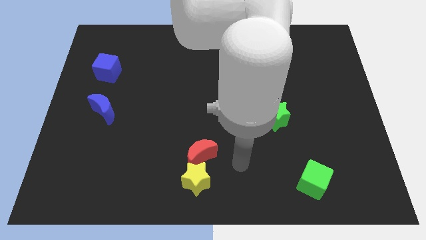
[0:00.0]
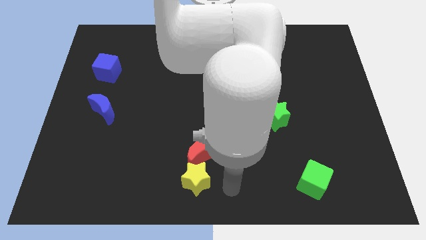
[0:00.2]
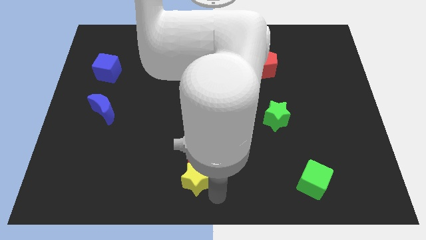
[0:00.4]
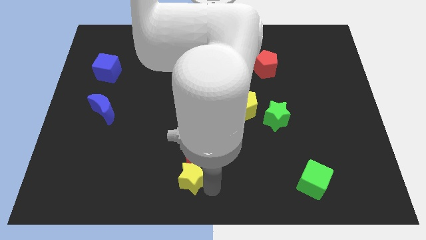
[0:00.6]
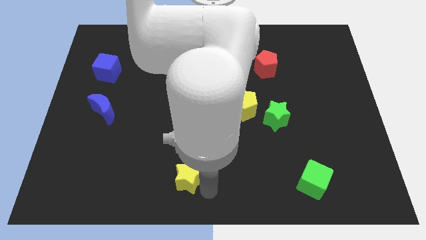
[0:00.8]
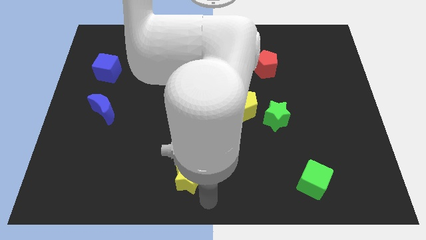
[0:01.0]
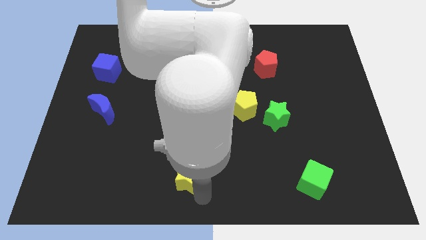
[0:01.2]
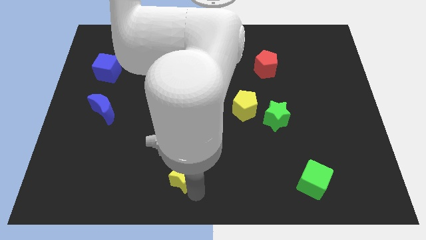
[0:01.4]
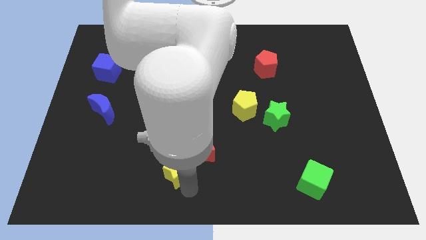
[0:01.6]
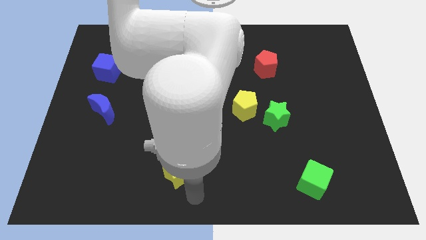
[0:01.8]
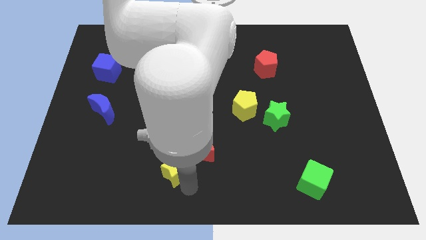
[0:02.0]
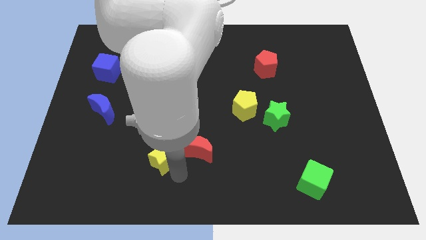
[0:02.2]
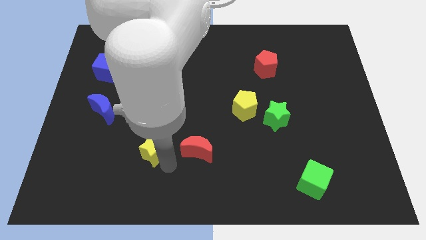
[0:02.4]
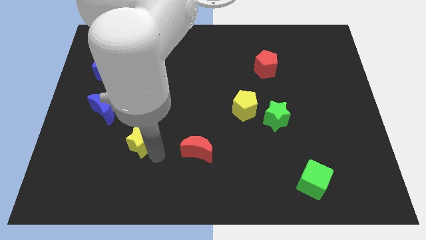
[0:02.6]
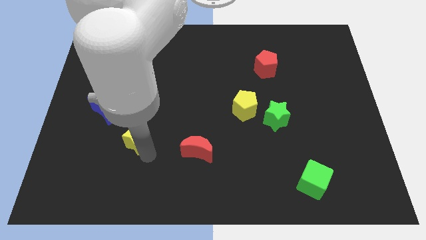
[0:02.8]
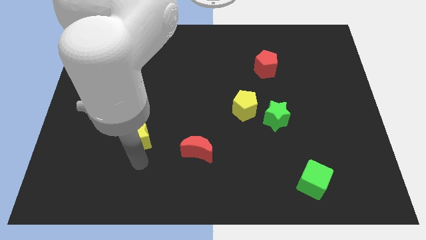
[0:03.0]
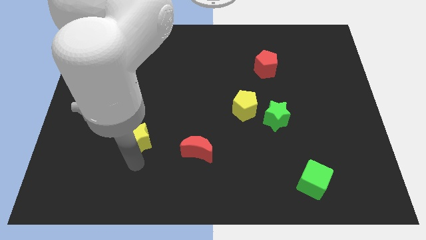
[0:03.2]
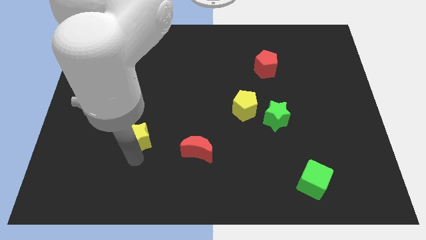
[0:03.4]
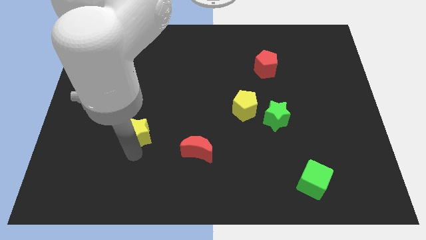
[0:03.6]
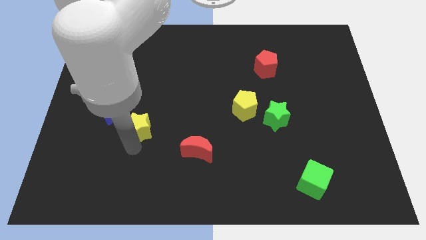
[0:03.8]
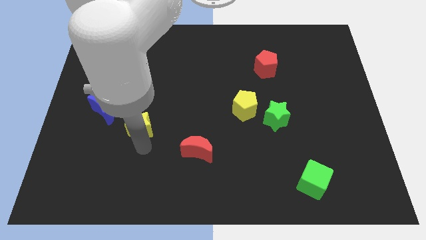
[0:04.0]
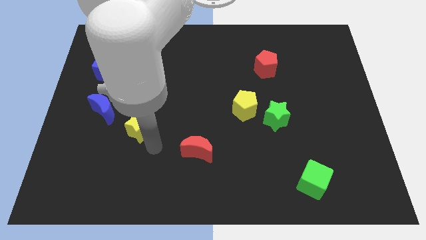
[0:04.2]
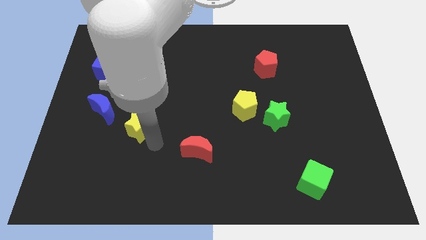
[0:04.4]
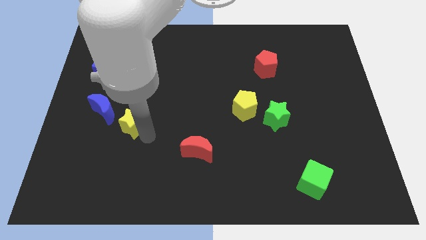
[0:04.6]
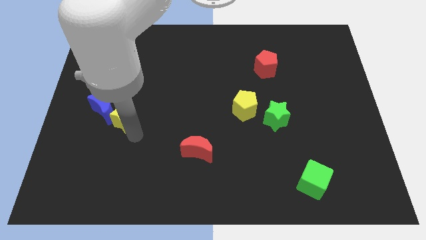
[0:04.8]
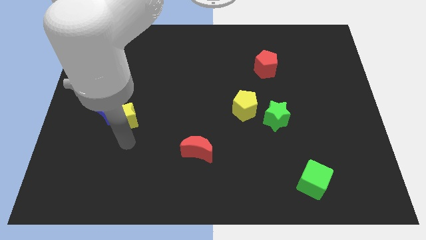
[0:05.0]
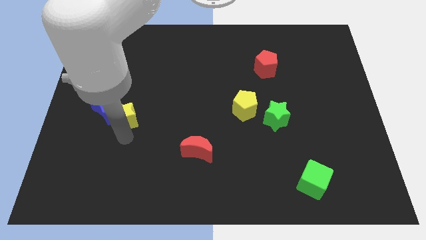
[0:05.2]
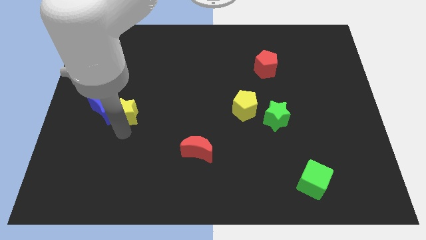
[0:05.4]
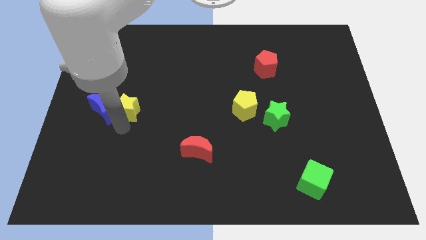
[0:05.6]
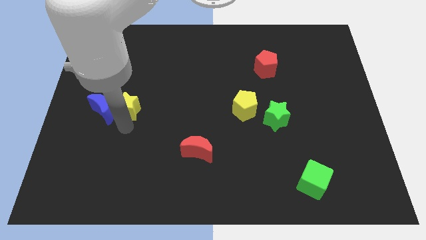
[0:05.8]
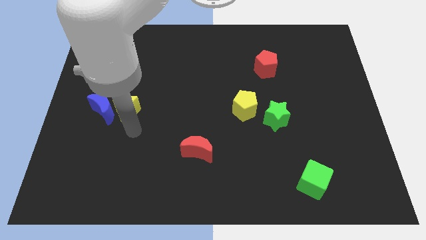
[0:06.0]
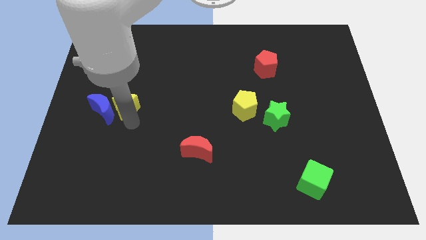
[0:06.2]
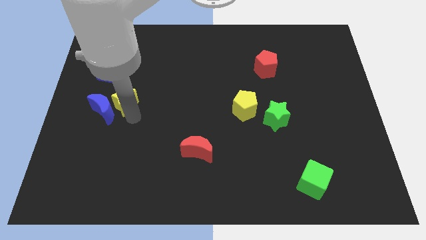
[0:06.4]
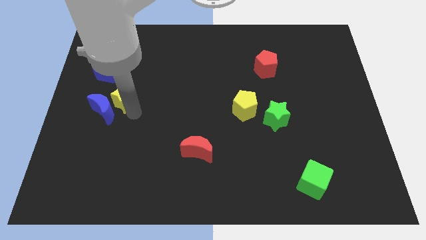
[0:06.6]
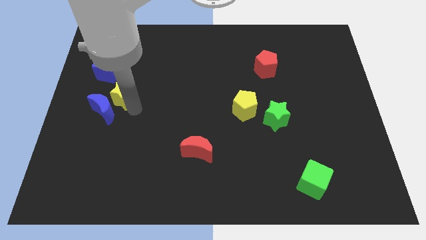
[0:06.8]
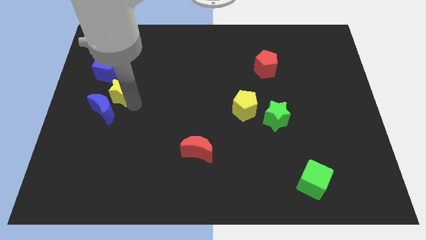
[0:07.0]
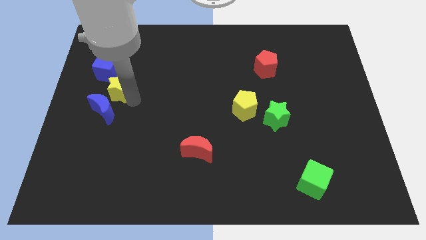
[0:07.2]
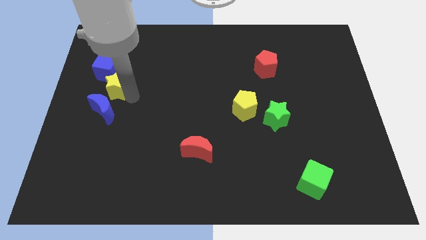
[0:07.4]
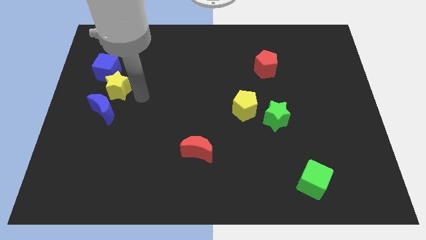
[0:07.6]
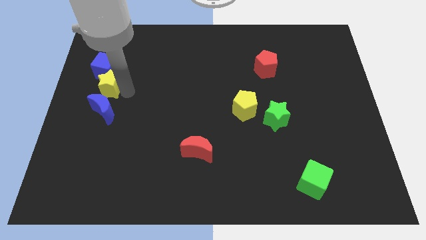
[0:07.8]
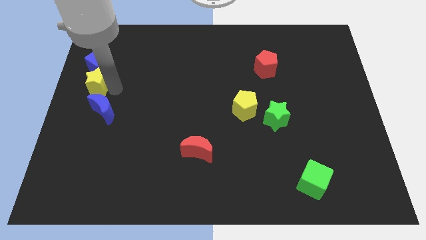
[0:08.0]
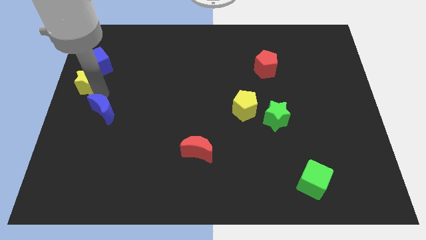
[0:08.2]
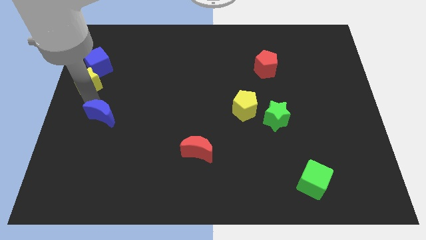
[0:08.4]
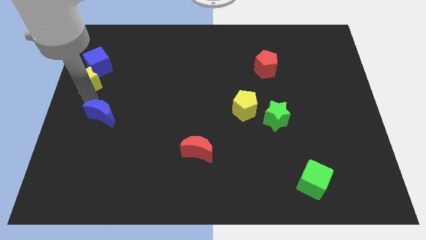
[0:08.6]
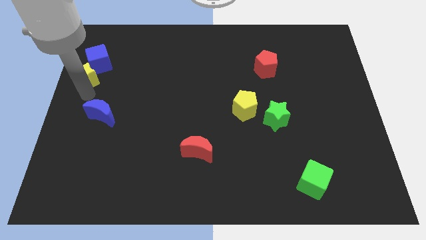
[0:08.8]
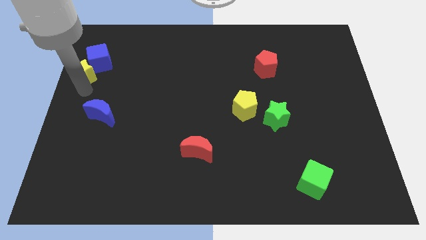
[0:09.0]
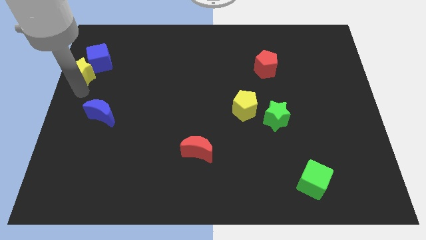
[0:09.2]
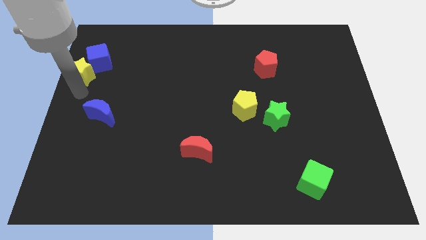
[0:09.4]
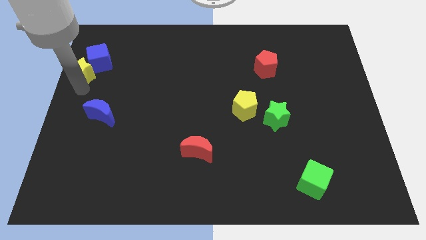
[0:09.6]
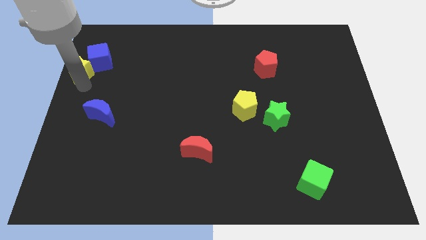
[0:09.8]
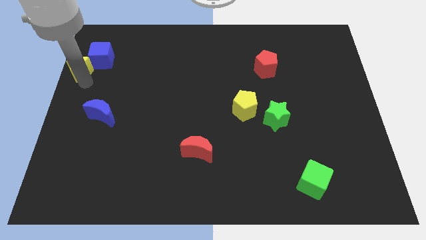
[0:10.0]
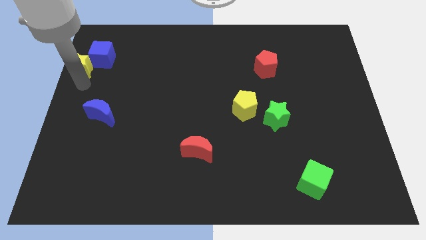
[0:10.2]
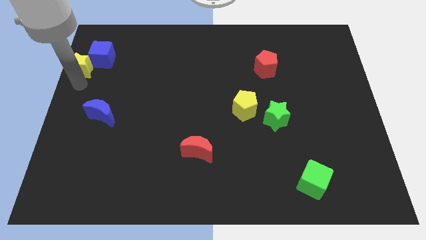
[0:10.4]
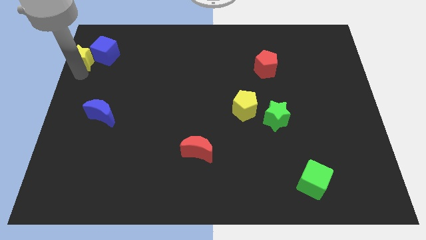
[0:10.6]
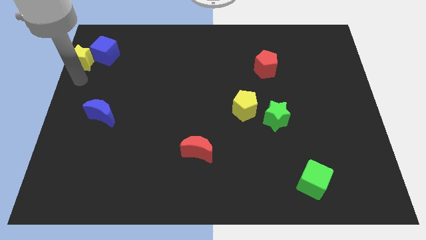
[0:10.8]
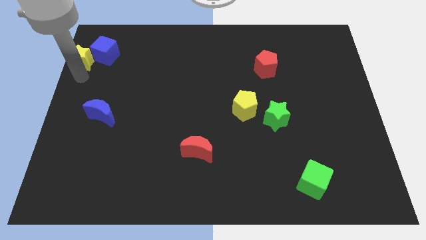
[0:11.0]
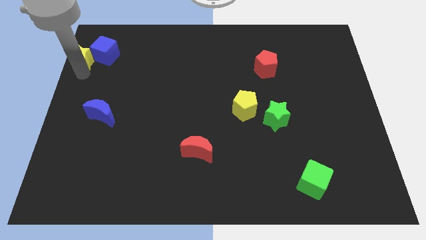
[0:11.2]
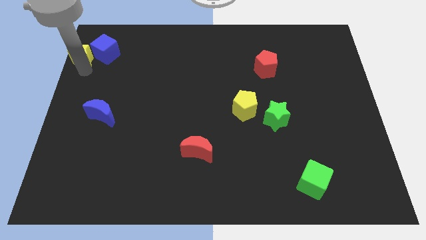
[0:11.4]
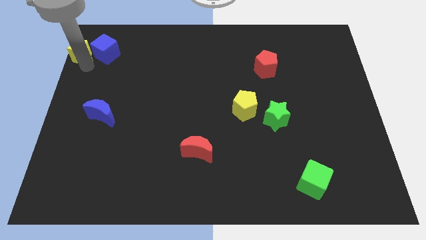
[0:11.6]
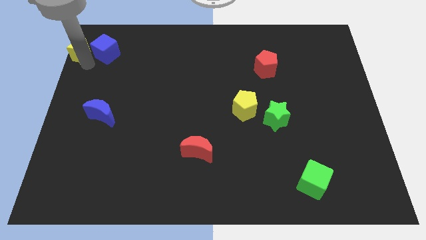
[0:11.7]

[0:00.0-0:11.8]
put the yellow star to the top left corner
